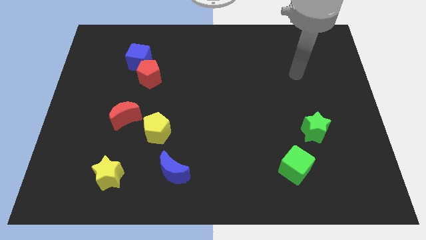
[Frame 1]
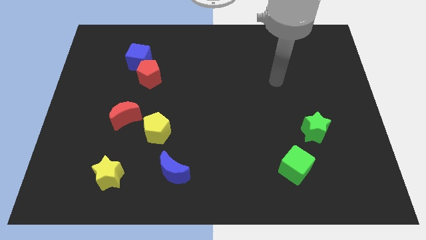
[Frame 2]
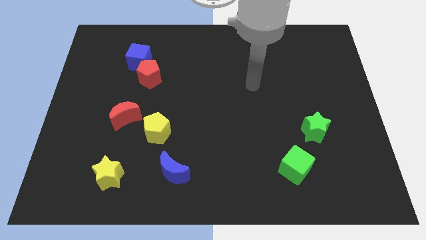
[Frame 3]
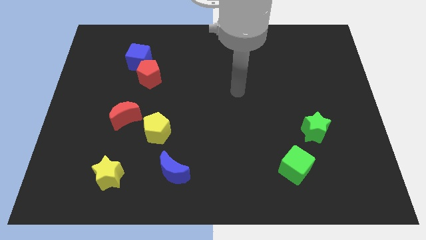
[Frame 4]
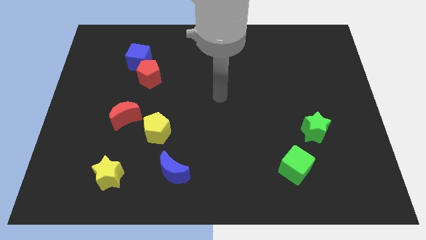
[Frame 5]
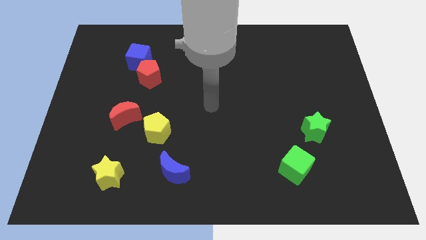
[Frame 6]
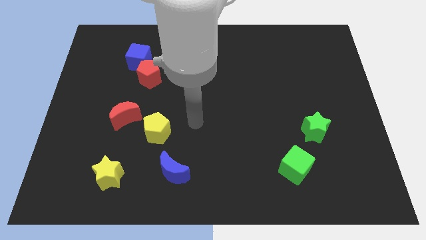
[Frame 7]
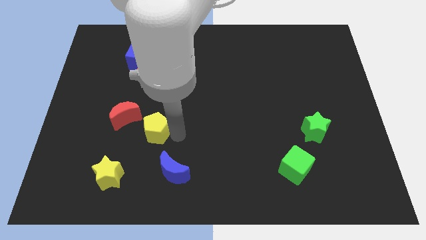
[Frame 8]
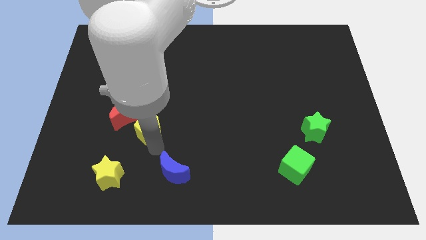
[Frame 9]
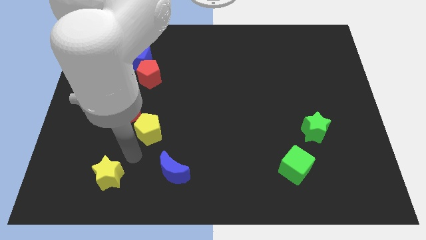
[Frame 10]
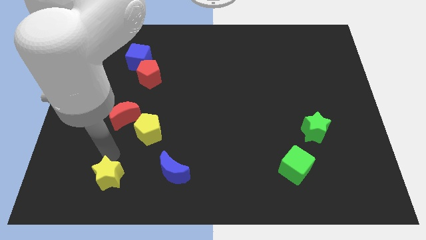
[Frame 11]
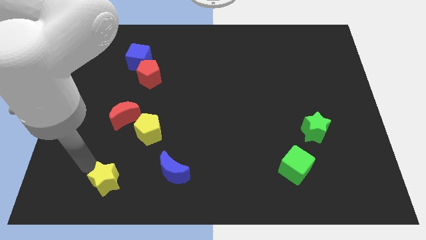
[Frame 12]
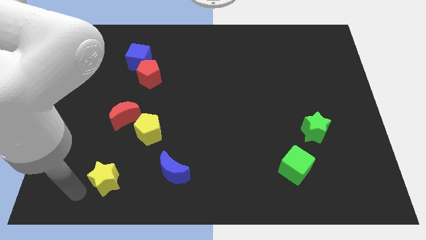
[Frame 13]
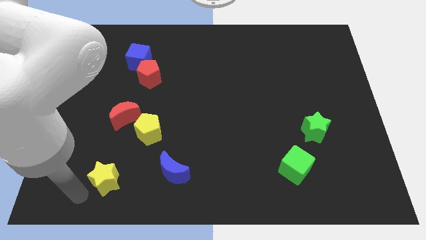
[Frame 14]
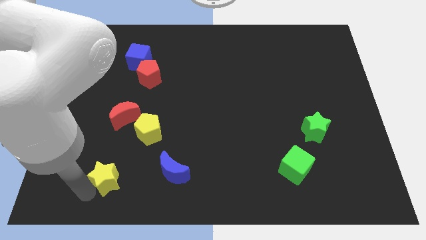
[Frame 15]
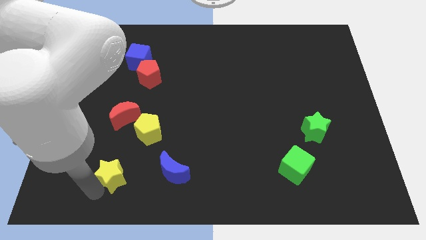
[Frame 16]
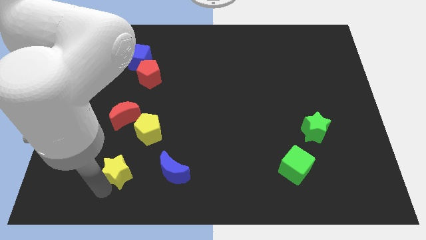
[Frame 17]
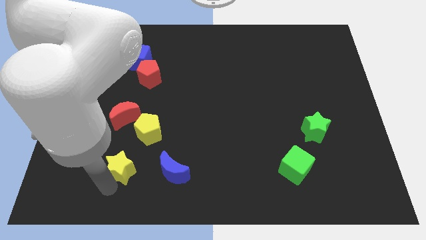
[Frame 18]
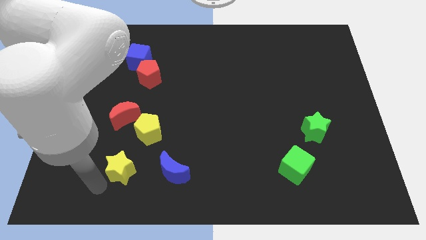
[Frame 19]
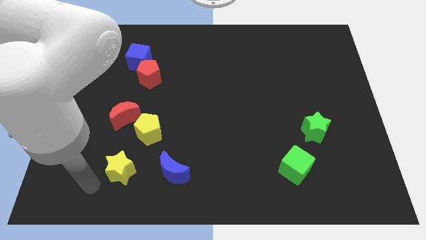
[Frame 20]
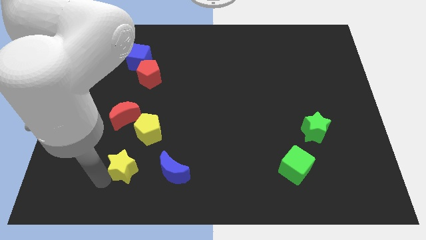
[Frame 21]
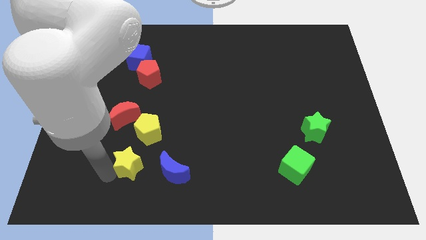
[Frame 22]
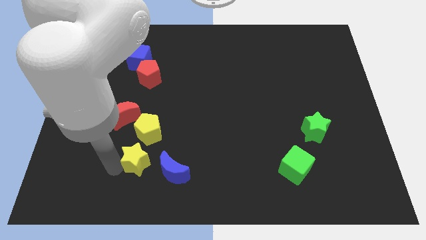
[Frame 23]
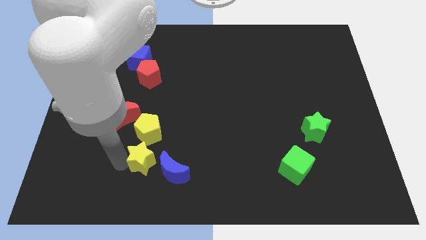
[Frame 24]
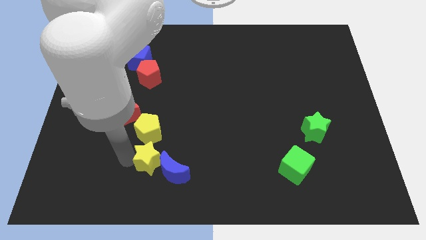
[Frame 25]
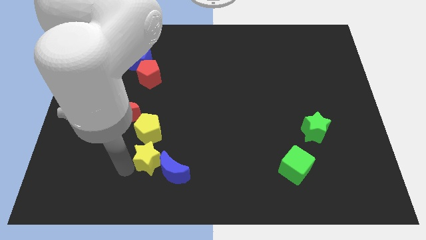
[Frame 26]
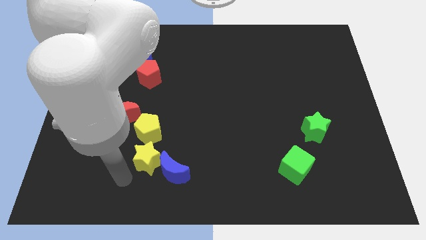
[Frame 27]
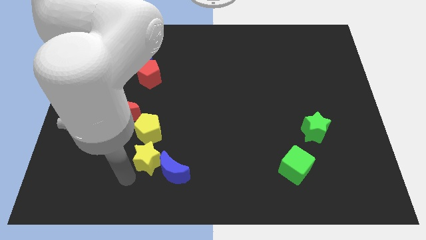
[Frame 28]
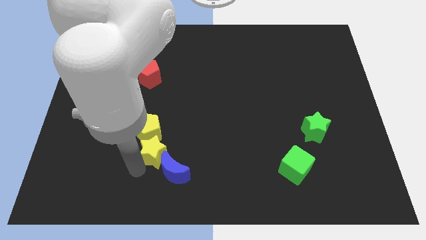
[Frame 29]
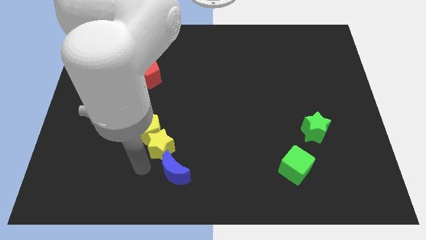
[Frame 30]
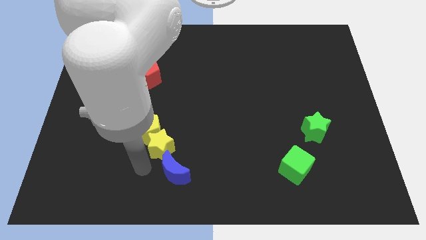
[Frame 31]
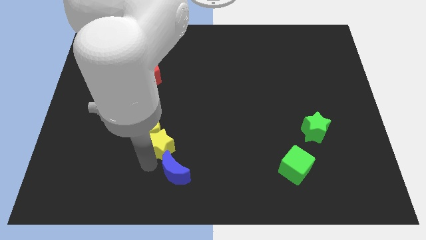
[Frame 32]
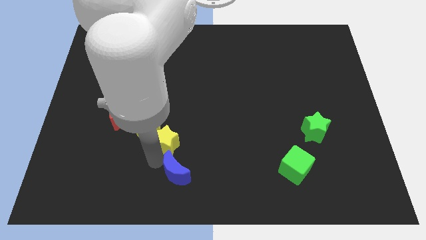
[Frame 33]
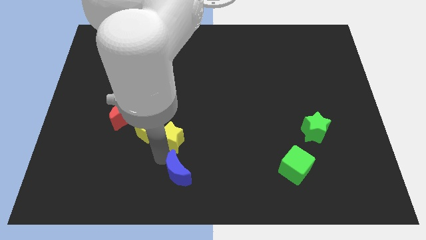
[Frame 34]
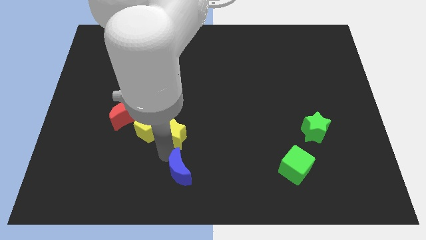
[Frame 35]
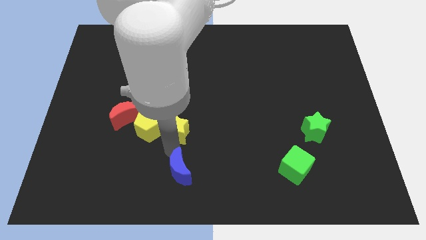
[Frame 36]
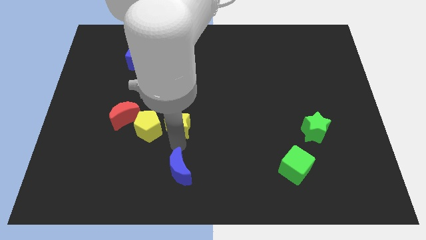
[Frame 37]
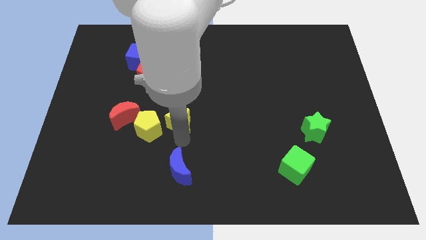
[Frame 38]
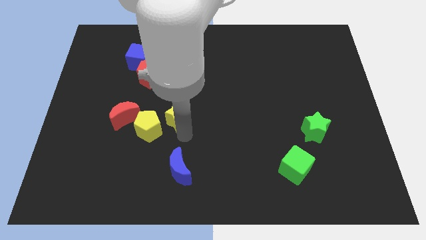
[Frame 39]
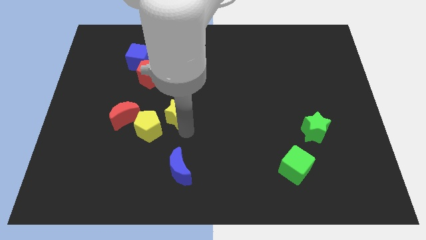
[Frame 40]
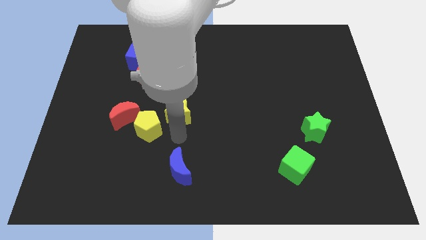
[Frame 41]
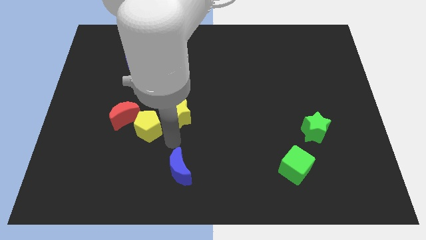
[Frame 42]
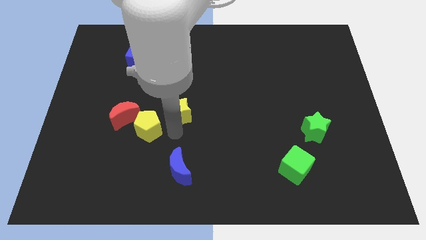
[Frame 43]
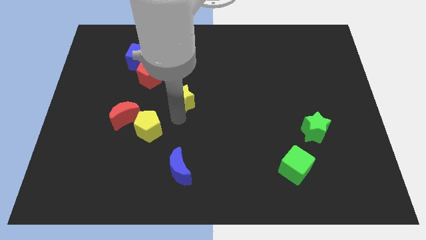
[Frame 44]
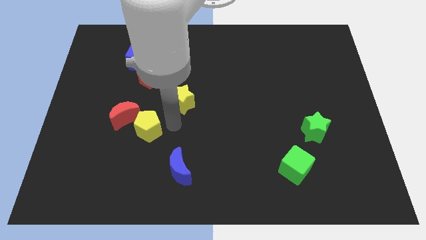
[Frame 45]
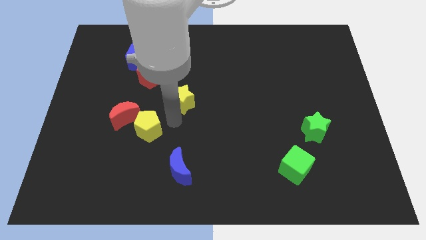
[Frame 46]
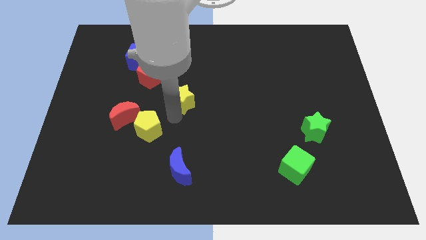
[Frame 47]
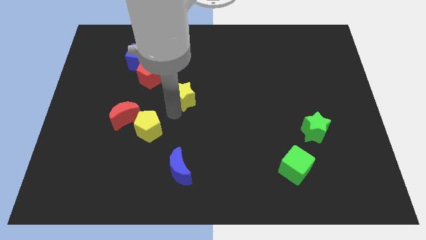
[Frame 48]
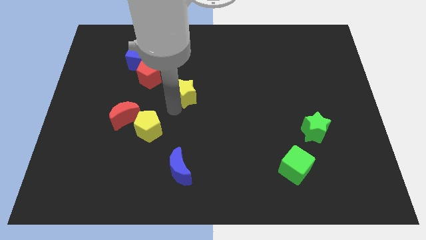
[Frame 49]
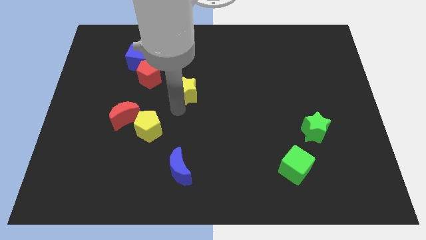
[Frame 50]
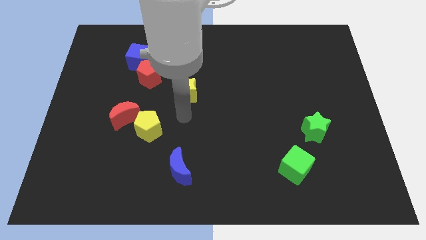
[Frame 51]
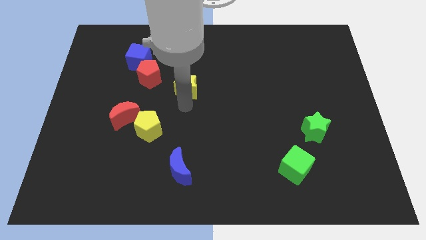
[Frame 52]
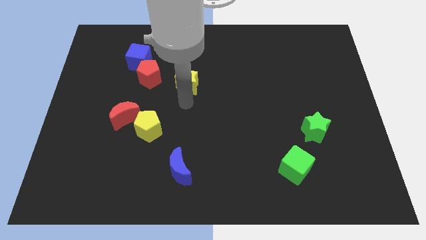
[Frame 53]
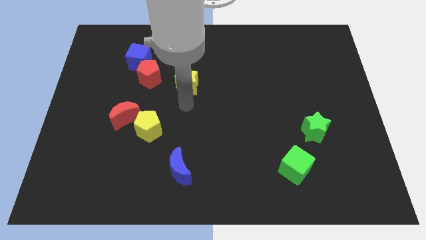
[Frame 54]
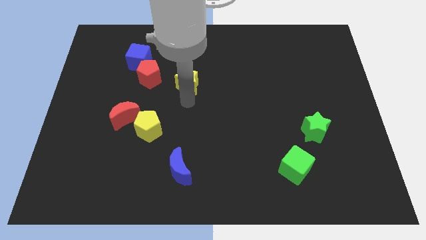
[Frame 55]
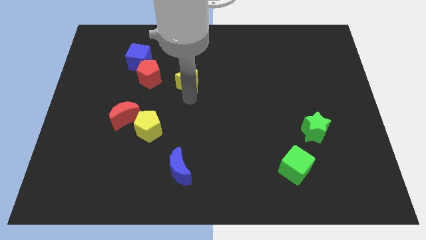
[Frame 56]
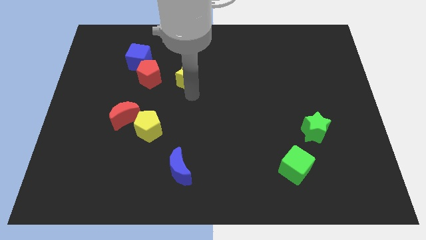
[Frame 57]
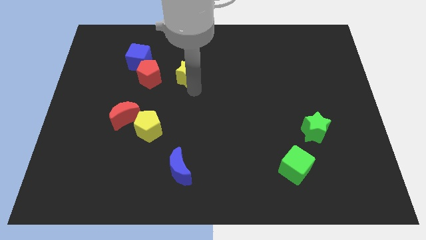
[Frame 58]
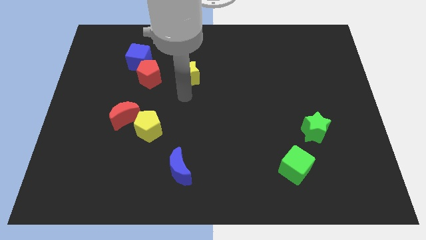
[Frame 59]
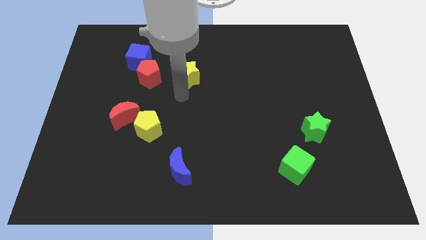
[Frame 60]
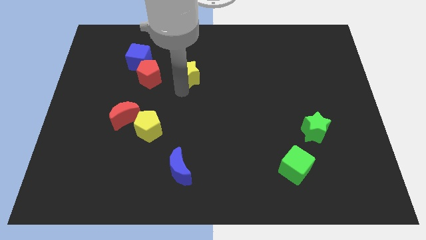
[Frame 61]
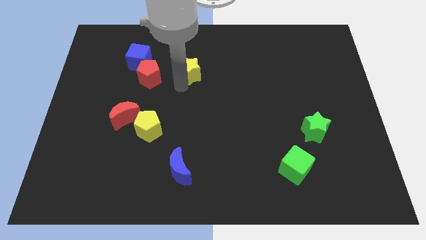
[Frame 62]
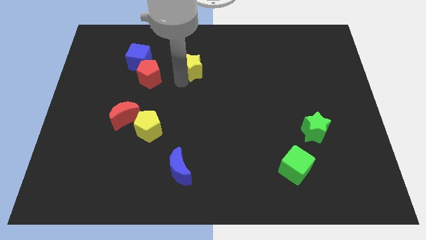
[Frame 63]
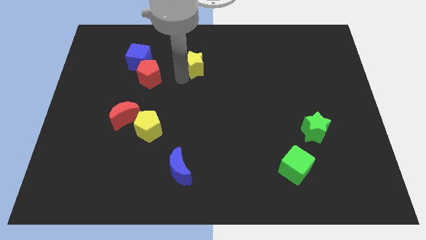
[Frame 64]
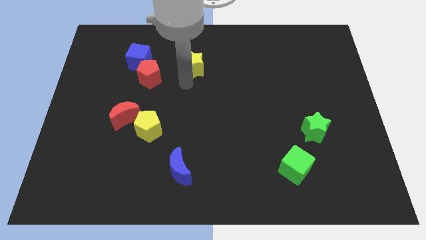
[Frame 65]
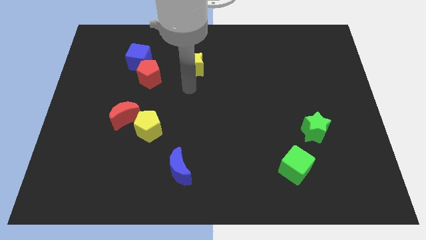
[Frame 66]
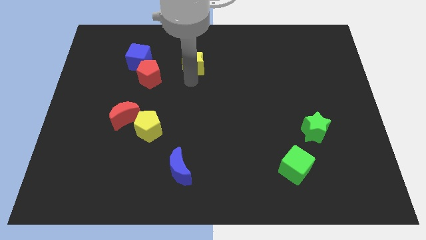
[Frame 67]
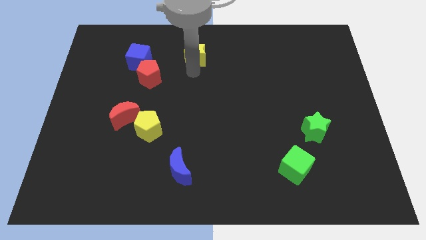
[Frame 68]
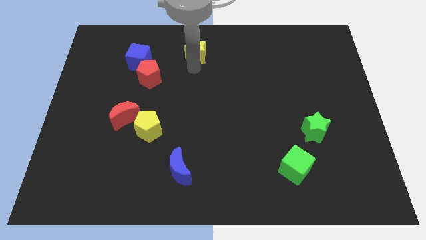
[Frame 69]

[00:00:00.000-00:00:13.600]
push the yellow star to the top side
